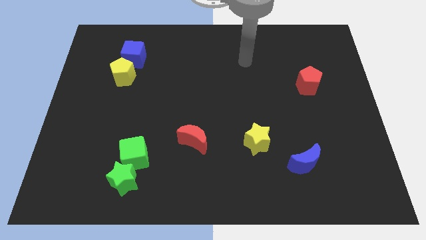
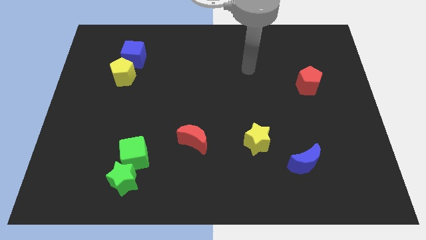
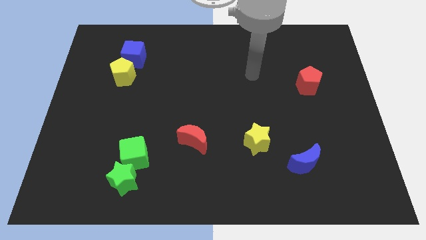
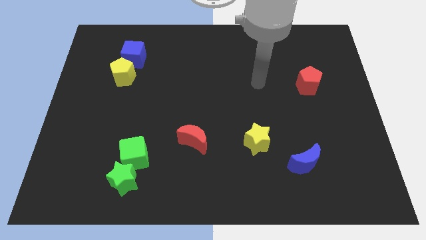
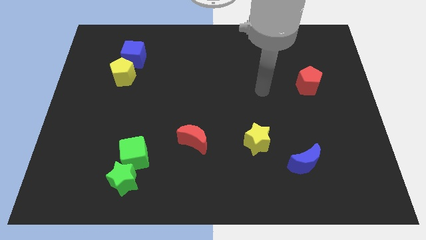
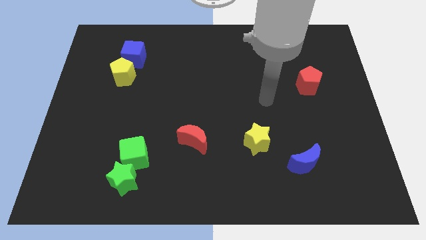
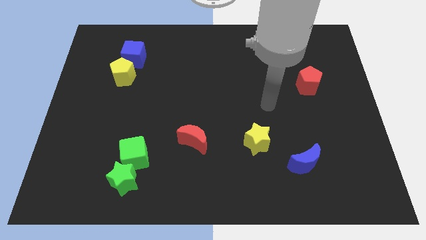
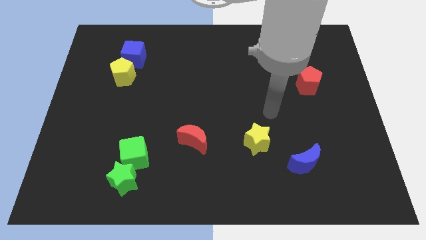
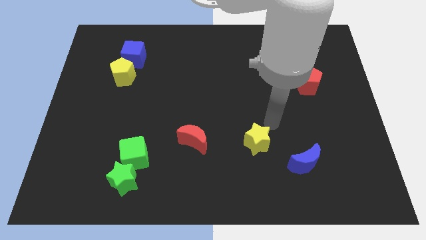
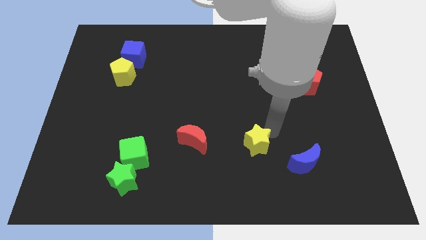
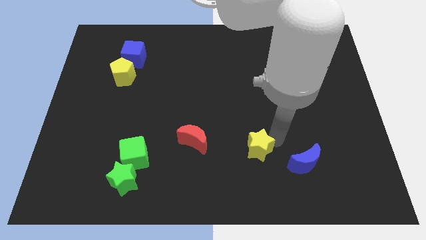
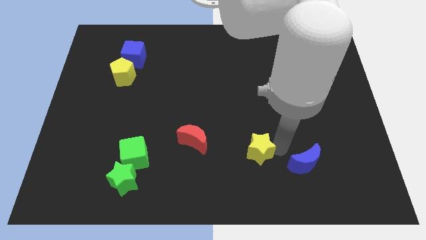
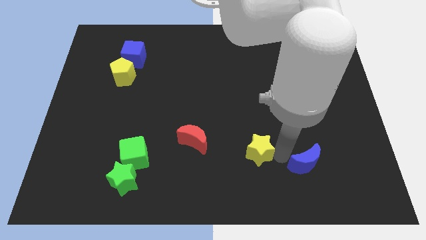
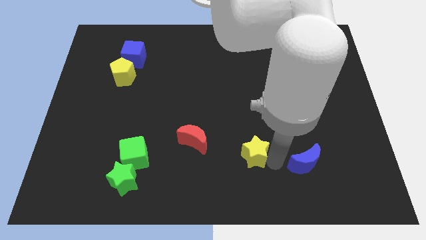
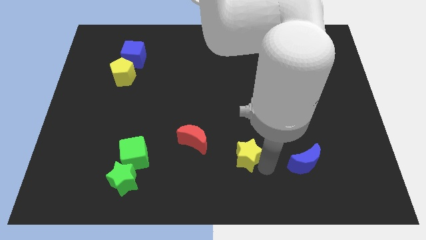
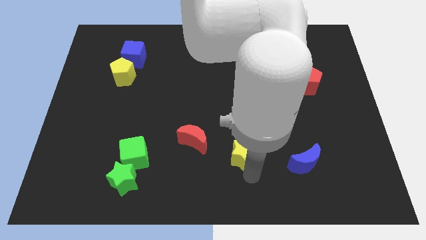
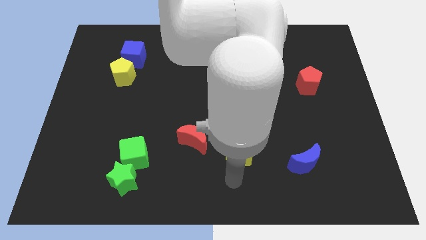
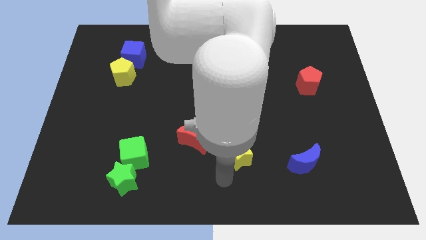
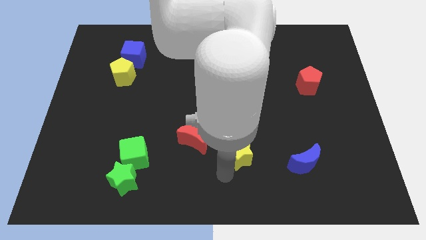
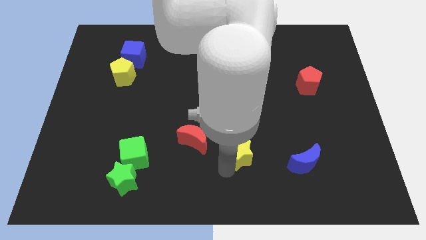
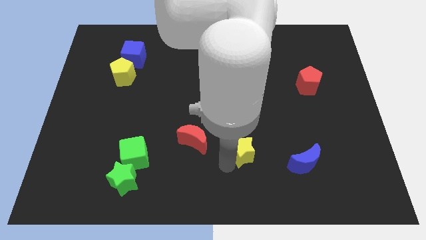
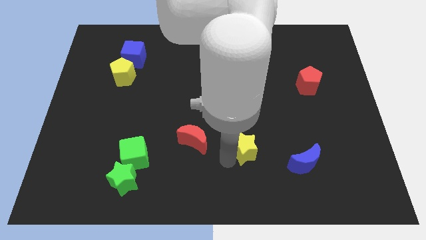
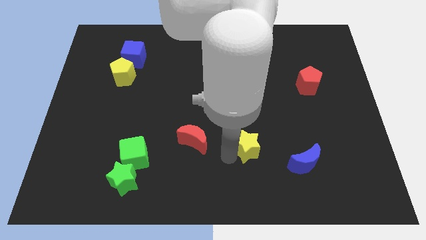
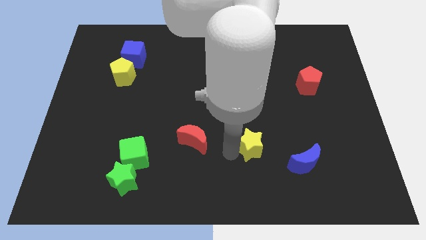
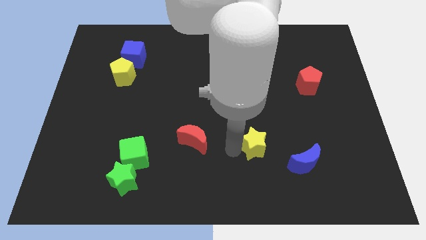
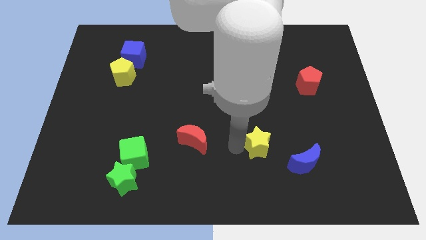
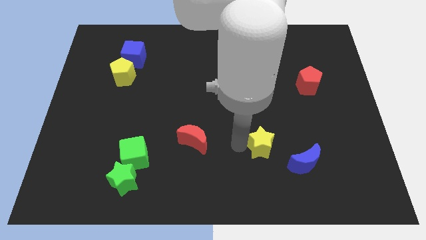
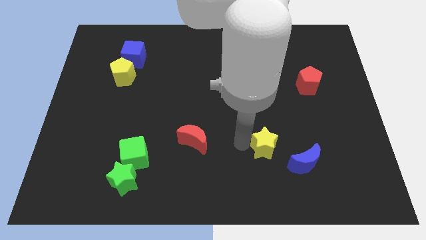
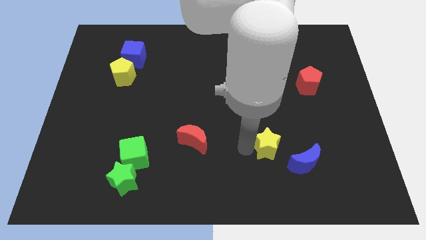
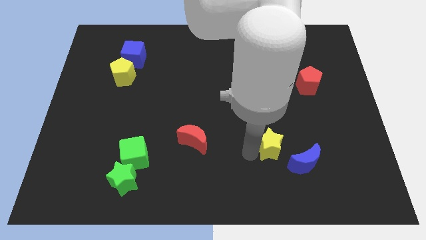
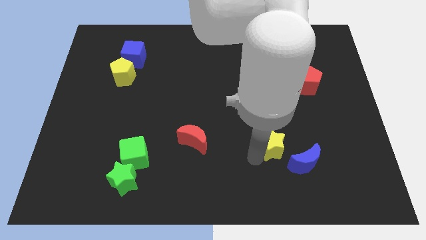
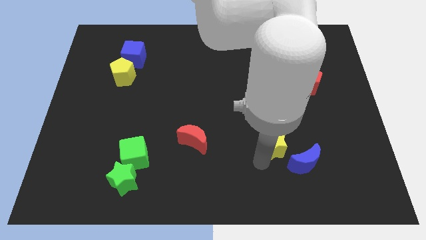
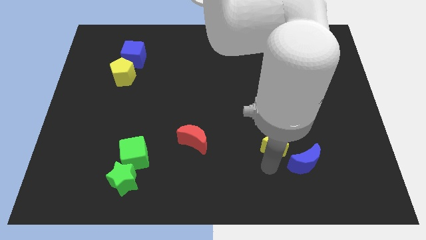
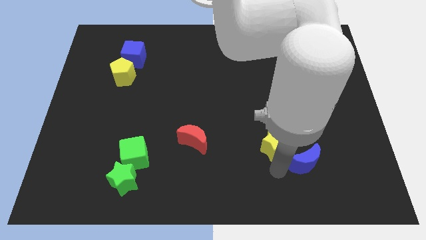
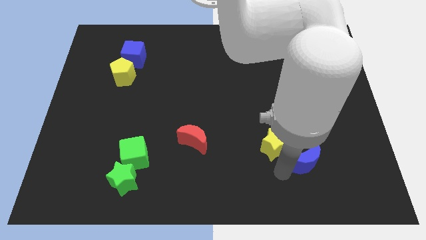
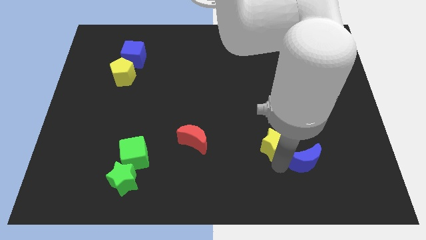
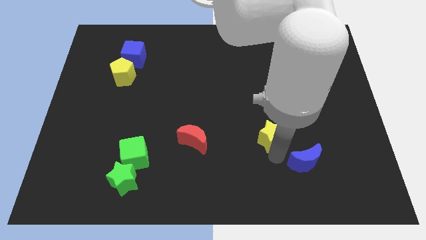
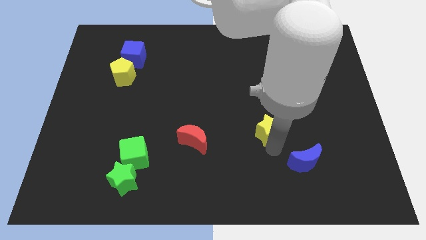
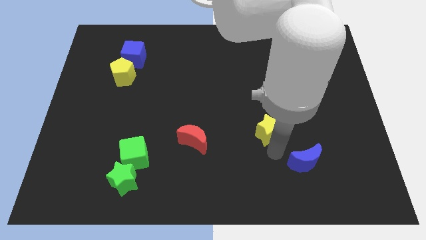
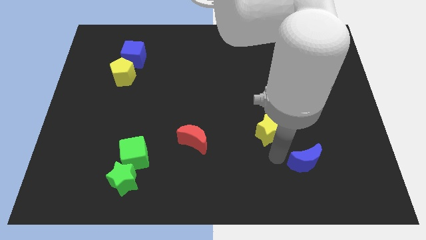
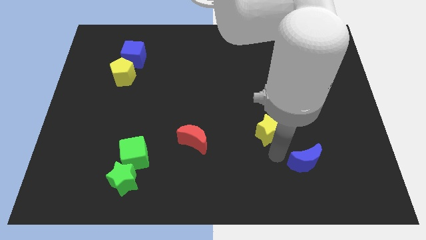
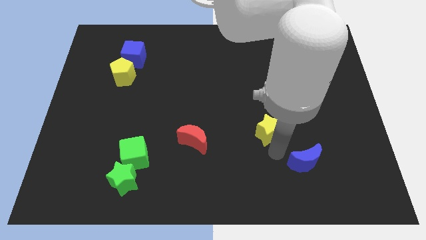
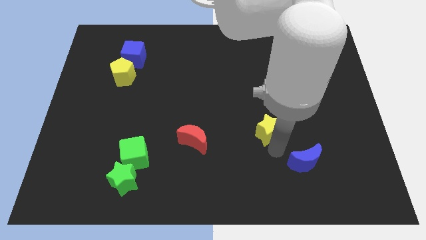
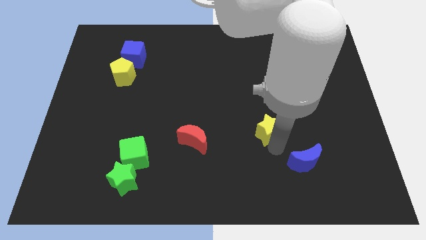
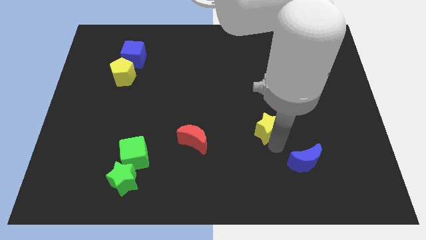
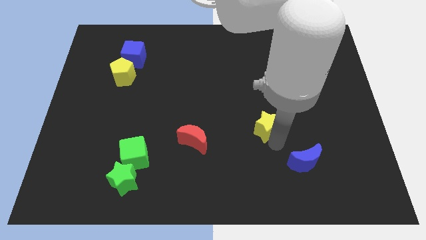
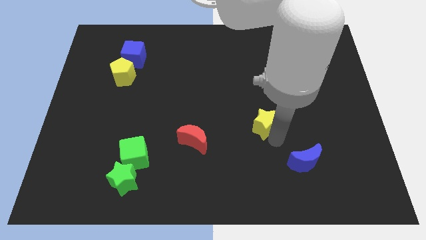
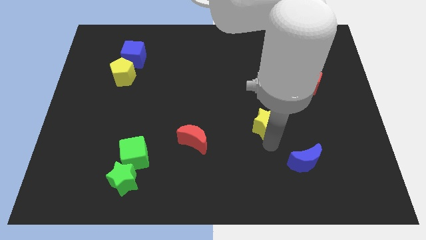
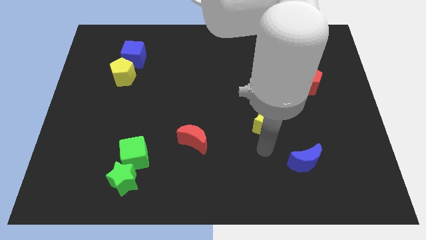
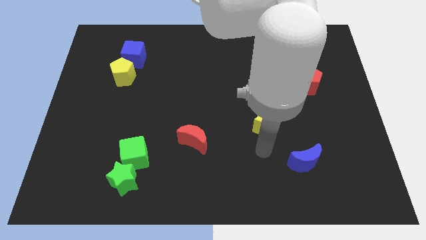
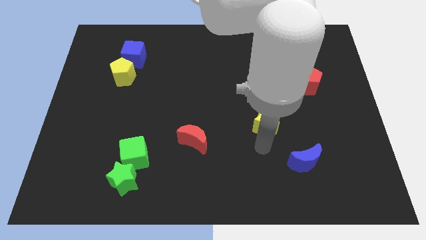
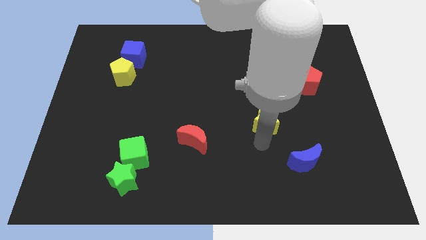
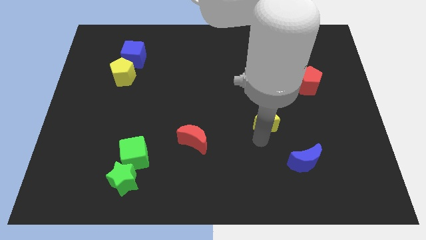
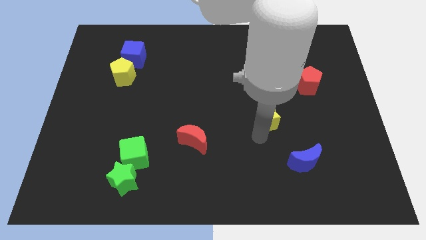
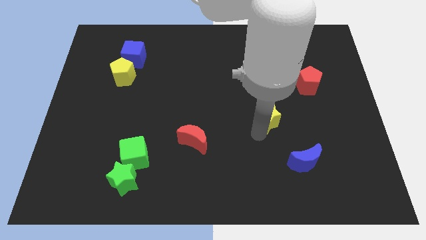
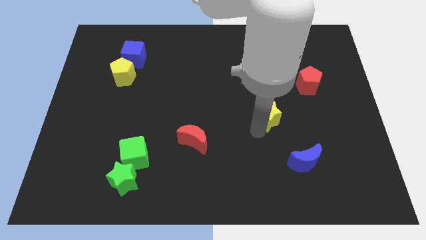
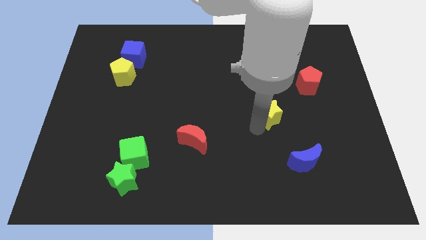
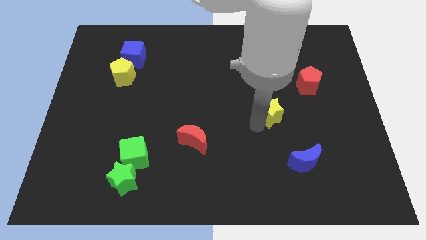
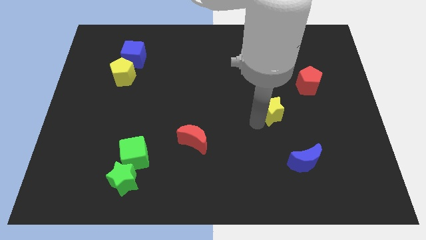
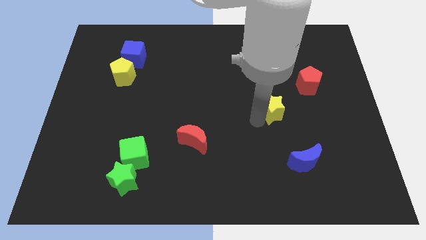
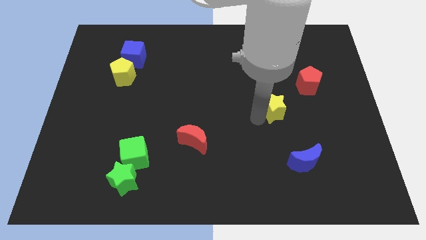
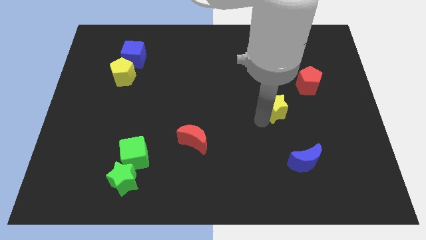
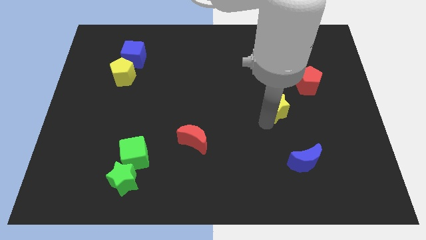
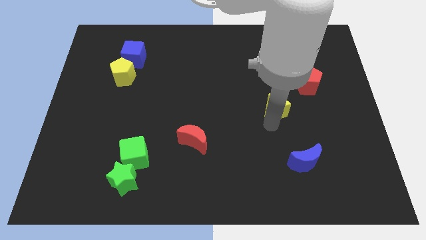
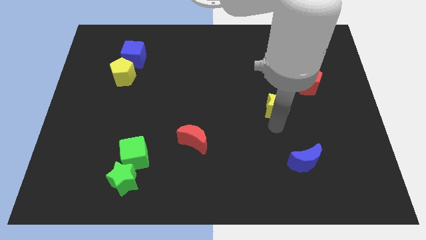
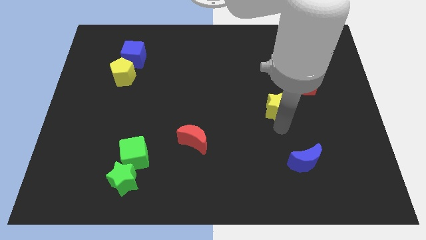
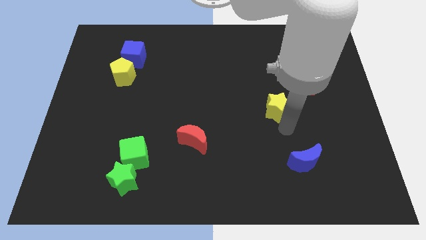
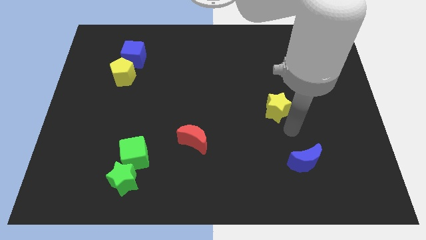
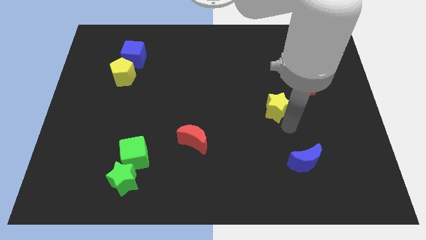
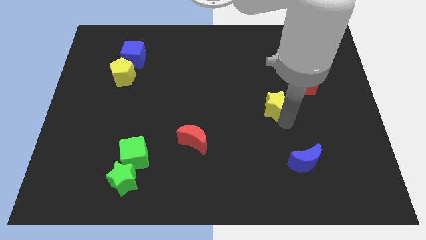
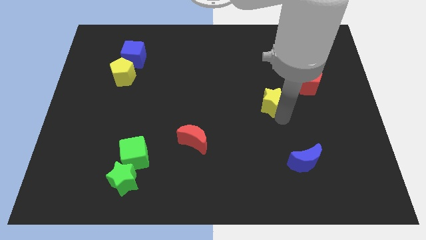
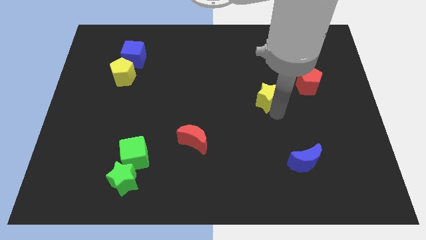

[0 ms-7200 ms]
slide the yellow star just left of the red pentagon

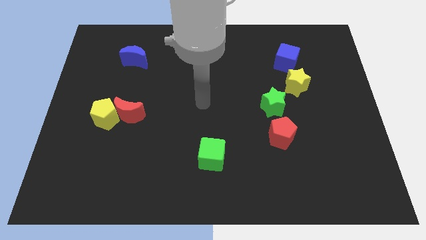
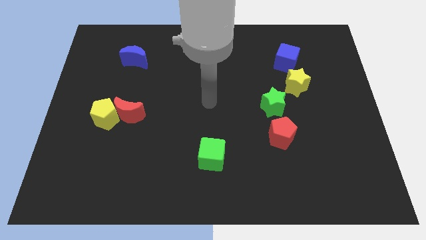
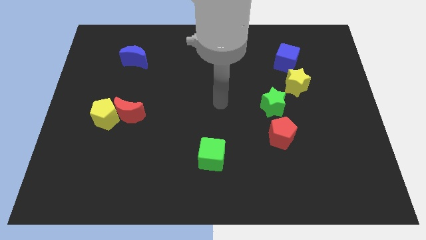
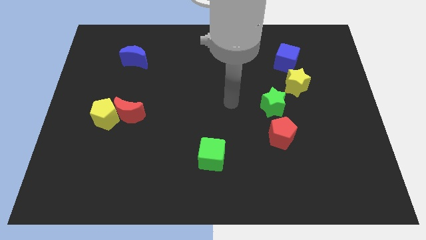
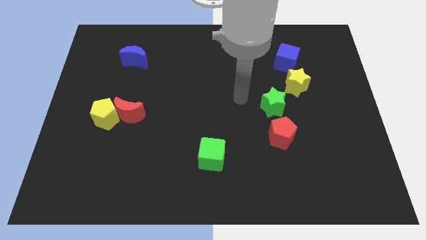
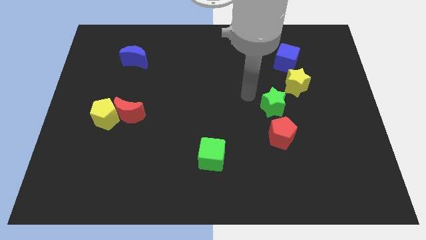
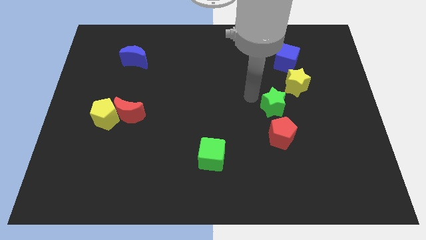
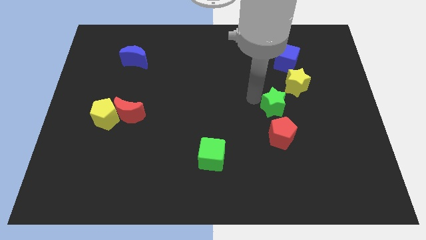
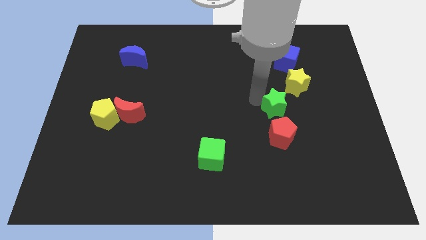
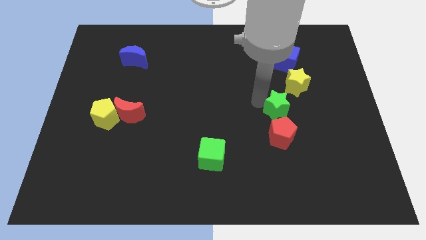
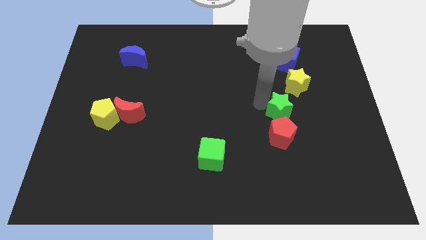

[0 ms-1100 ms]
put the green star to the top right of the red pentagon
